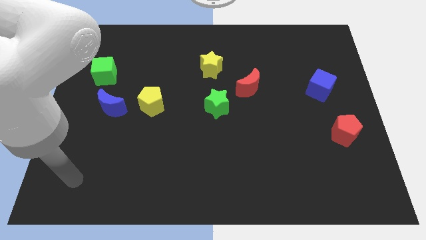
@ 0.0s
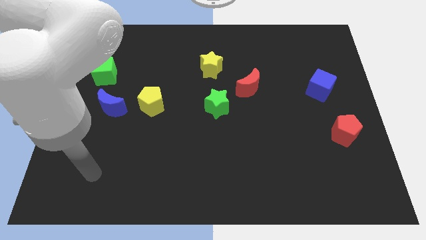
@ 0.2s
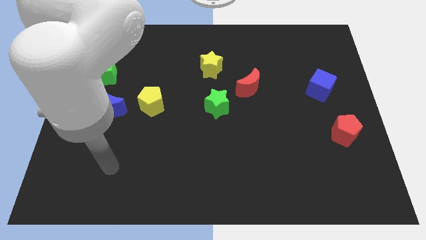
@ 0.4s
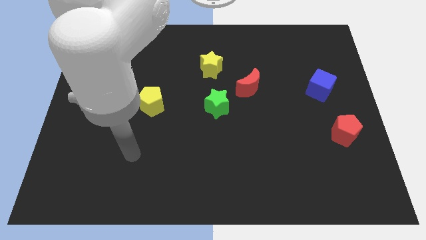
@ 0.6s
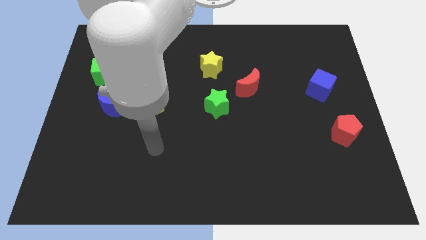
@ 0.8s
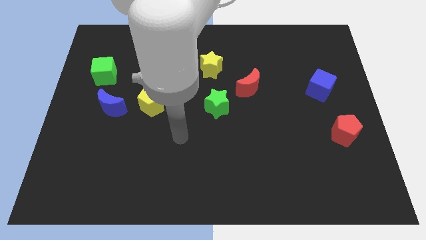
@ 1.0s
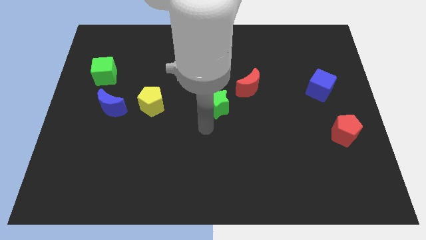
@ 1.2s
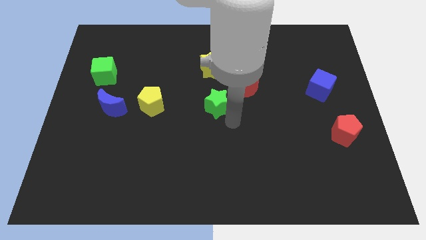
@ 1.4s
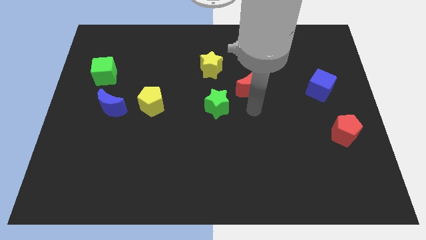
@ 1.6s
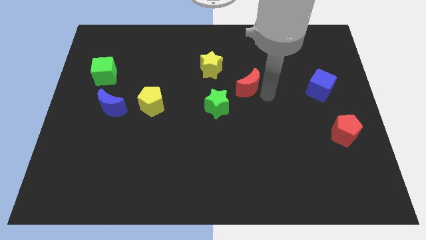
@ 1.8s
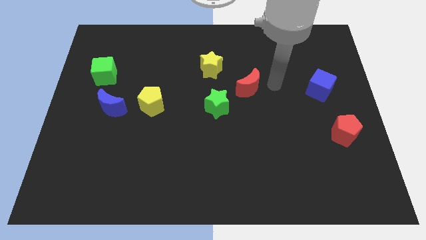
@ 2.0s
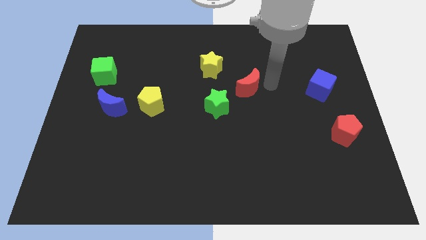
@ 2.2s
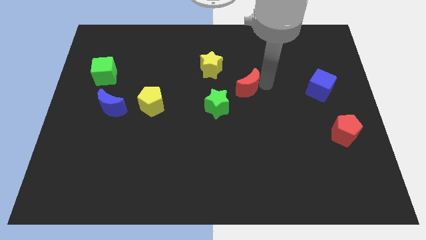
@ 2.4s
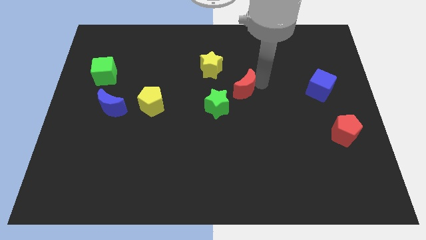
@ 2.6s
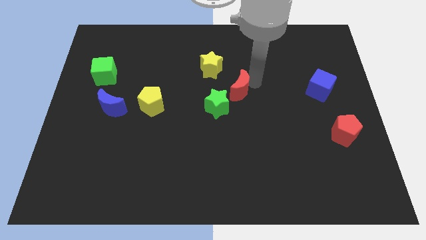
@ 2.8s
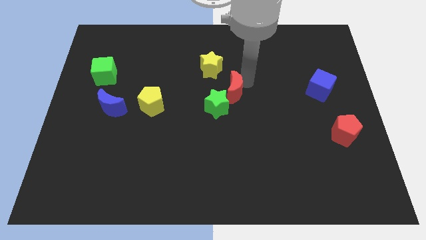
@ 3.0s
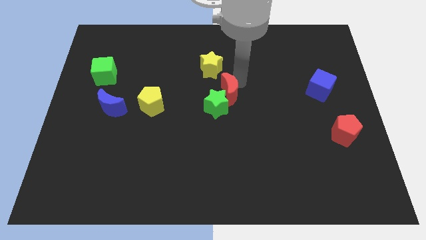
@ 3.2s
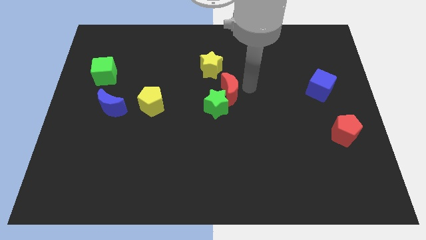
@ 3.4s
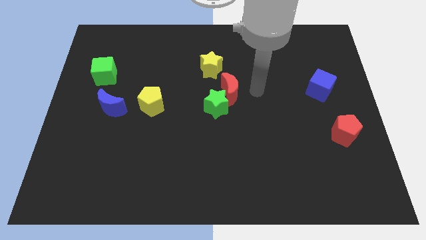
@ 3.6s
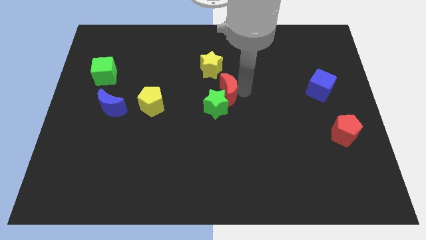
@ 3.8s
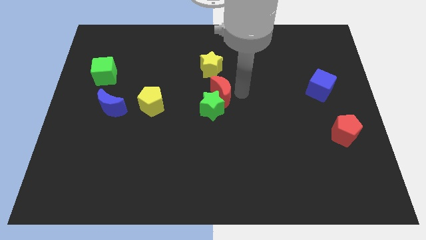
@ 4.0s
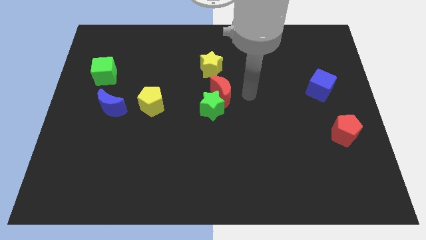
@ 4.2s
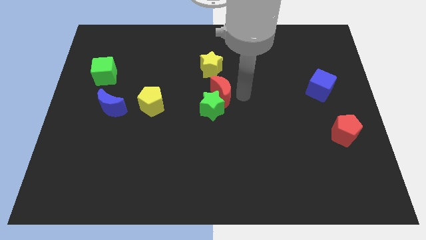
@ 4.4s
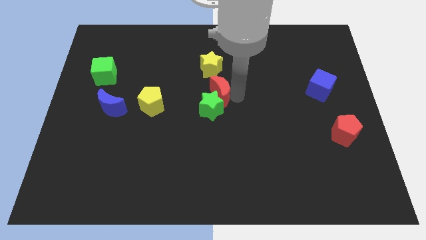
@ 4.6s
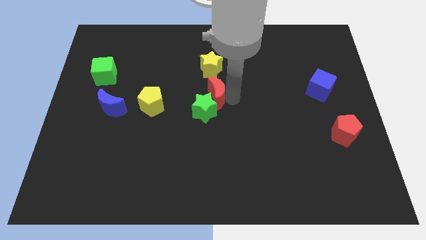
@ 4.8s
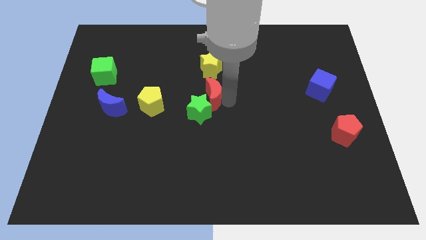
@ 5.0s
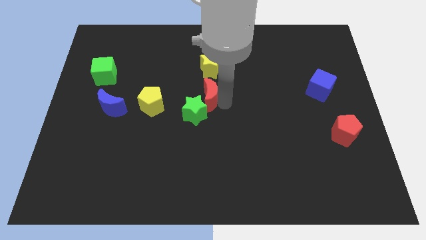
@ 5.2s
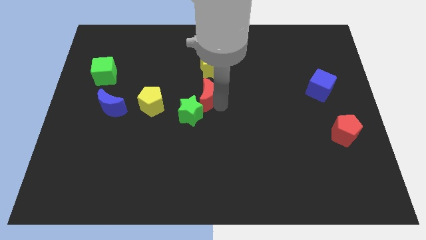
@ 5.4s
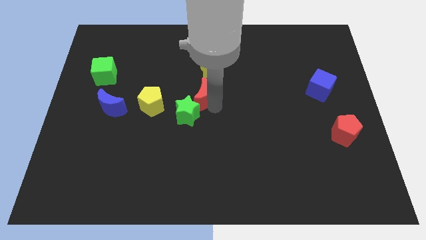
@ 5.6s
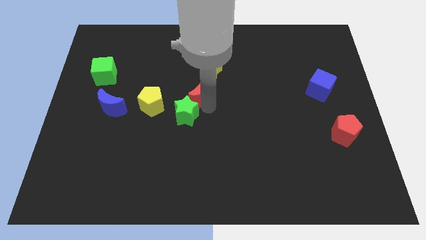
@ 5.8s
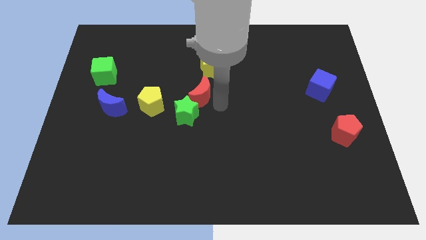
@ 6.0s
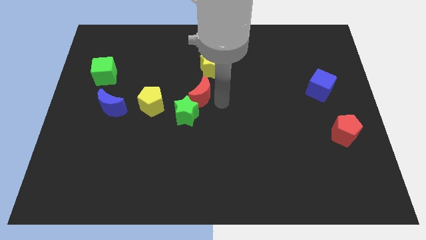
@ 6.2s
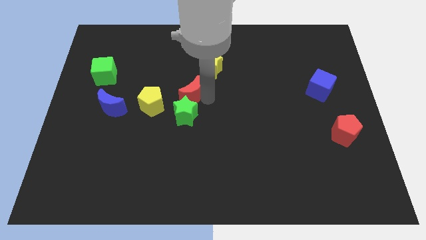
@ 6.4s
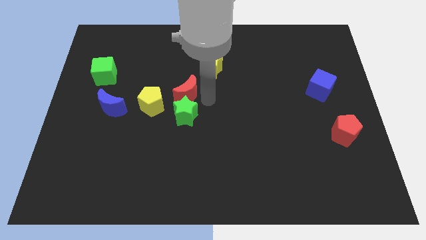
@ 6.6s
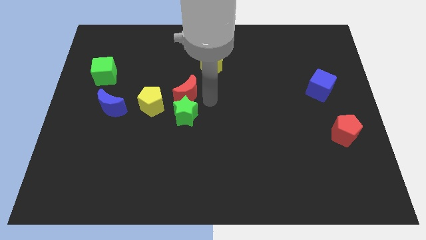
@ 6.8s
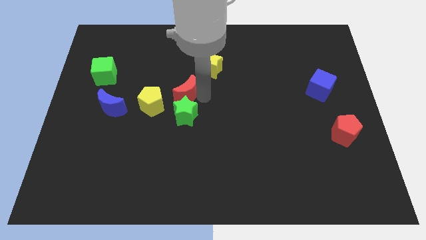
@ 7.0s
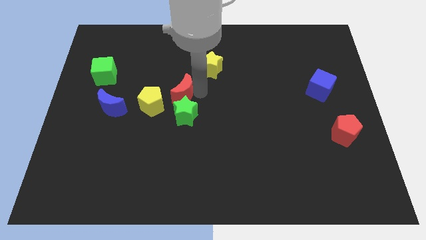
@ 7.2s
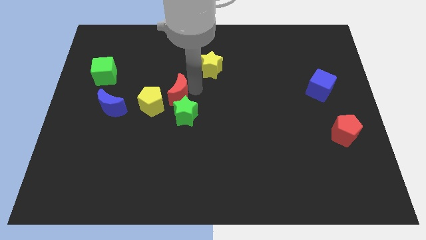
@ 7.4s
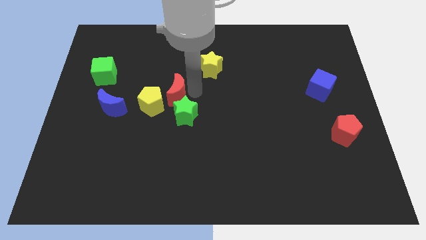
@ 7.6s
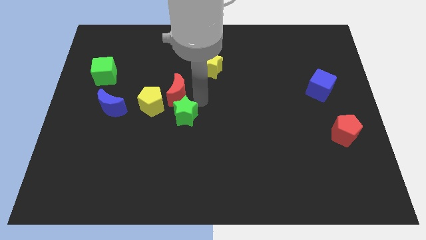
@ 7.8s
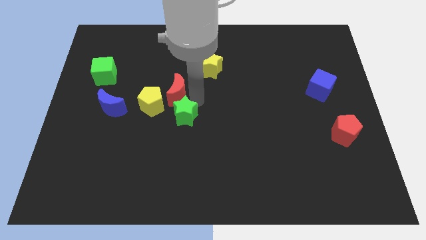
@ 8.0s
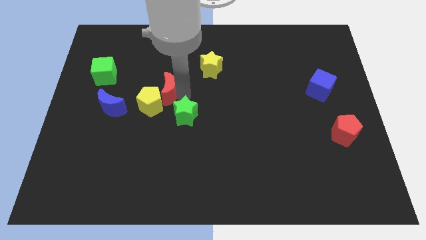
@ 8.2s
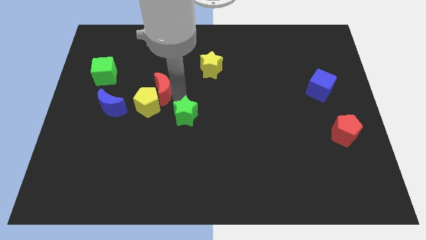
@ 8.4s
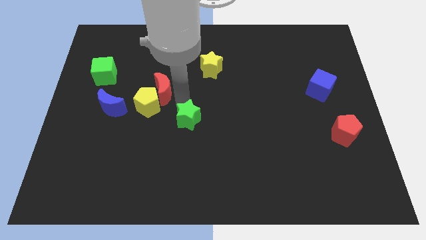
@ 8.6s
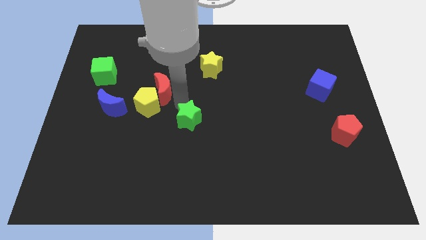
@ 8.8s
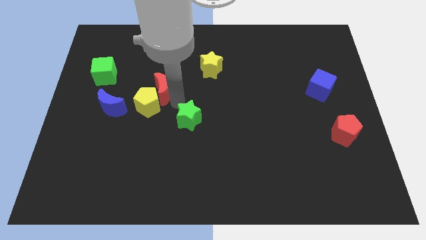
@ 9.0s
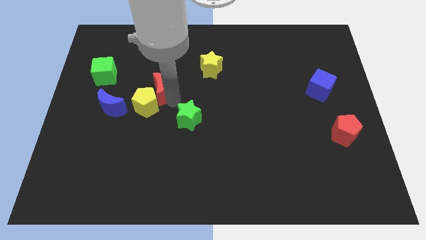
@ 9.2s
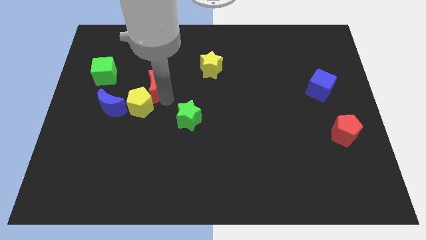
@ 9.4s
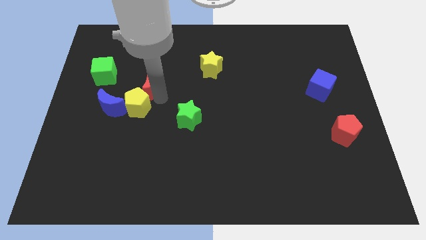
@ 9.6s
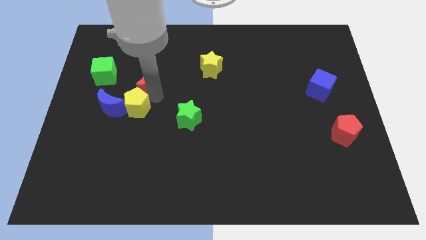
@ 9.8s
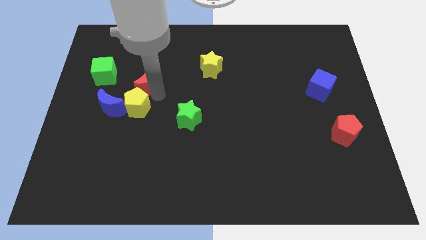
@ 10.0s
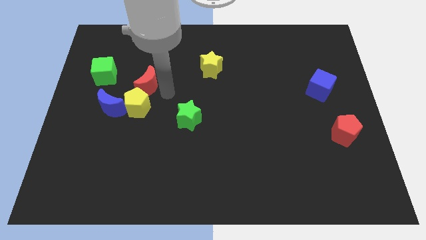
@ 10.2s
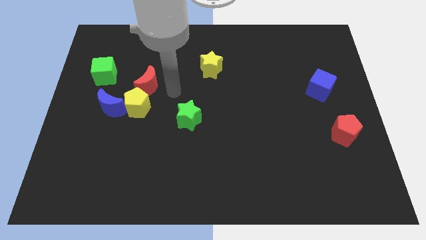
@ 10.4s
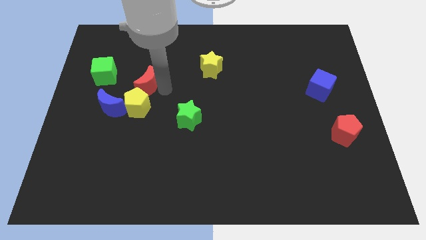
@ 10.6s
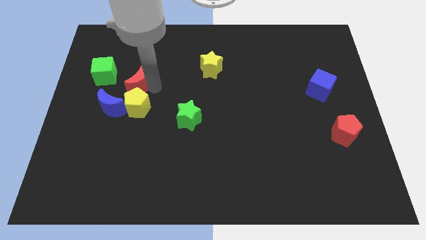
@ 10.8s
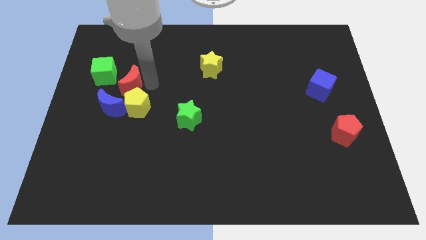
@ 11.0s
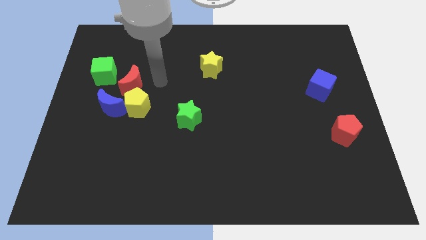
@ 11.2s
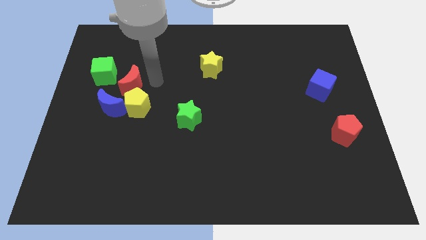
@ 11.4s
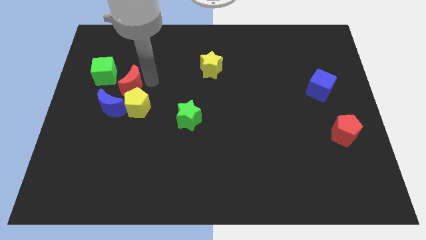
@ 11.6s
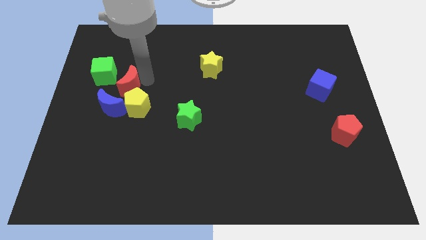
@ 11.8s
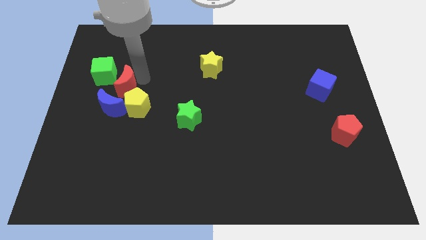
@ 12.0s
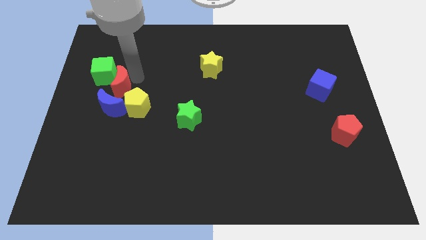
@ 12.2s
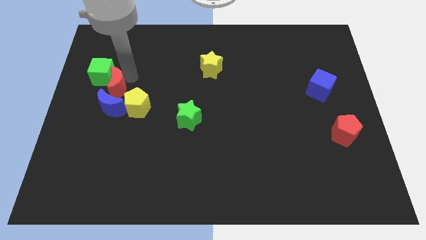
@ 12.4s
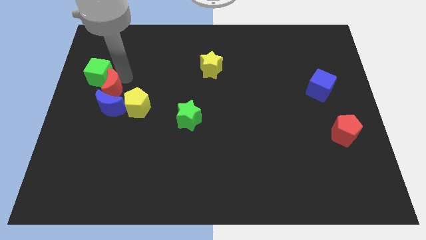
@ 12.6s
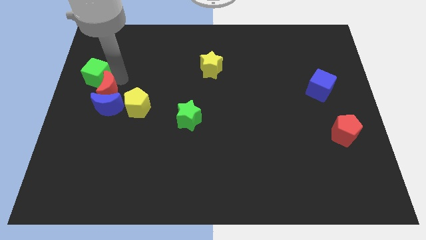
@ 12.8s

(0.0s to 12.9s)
put the red moon to the center left
